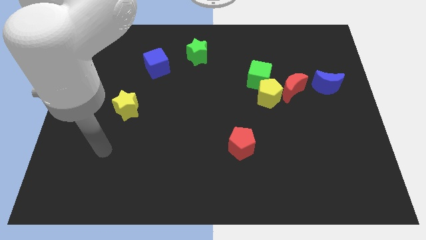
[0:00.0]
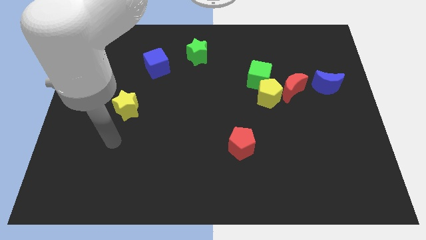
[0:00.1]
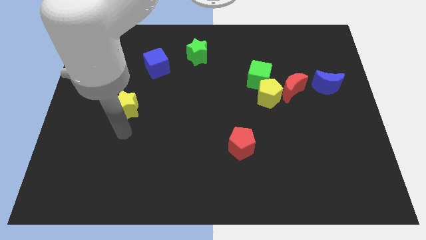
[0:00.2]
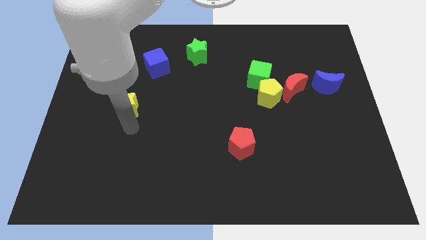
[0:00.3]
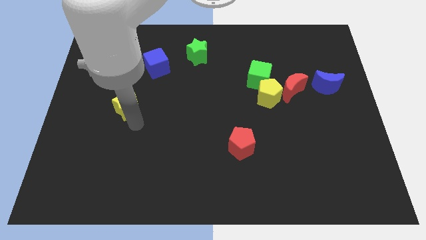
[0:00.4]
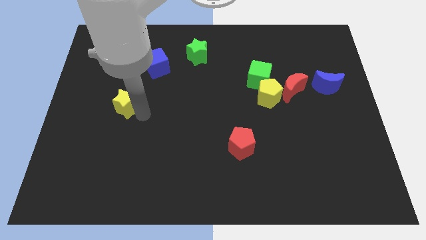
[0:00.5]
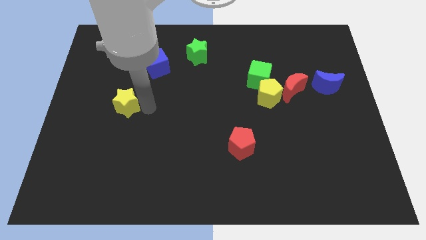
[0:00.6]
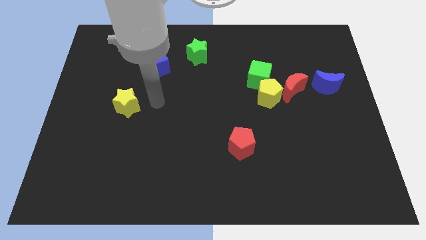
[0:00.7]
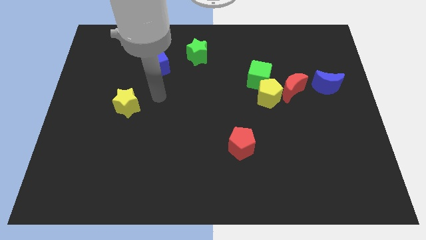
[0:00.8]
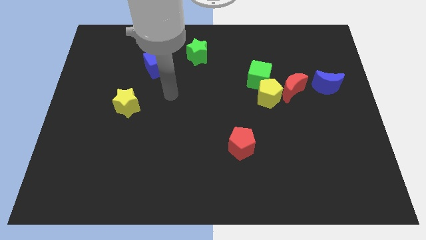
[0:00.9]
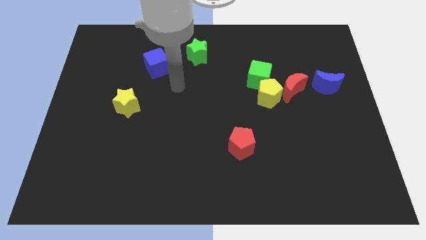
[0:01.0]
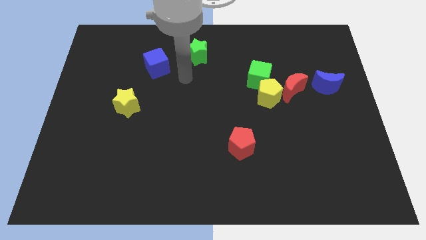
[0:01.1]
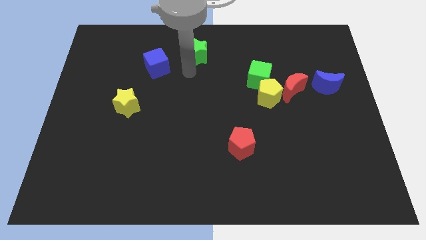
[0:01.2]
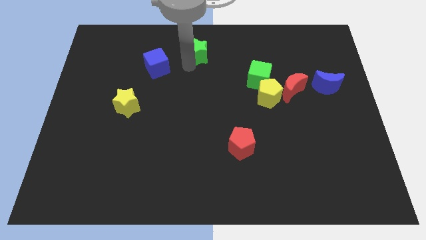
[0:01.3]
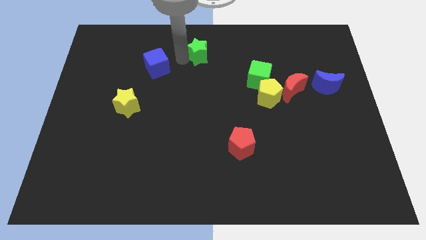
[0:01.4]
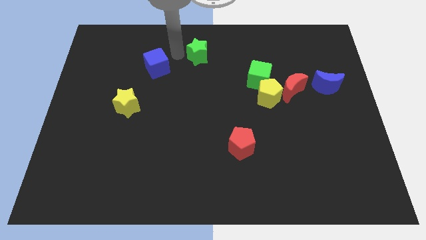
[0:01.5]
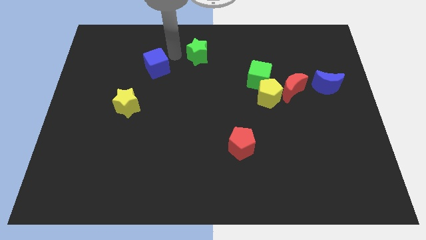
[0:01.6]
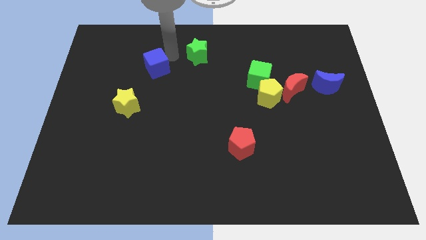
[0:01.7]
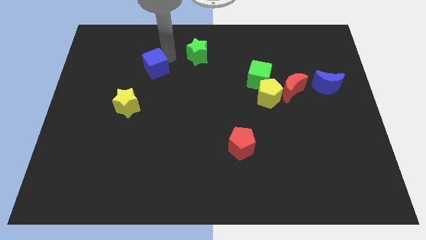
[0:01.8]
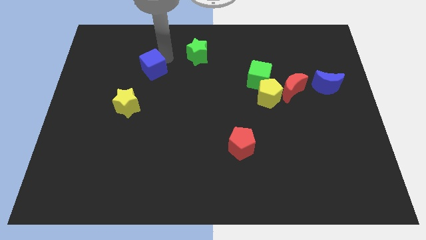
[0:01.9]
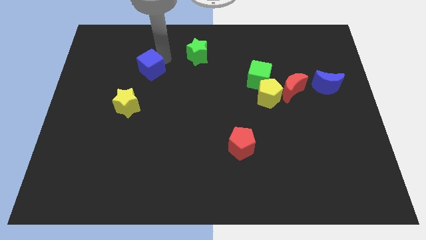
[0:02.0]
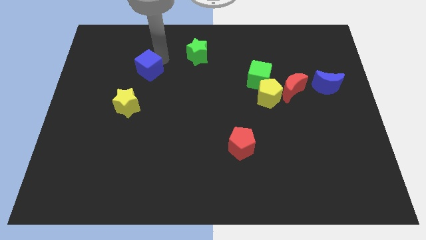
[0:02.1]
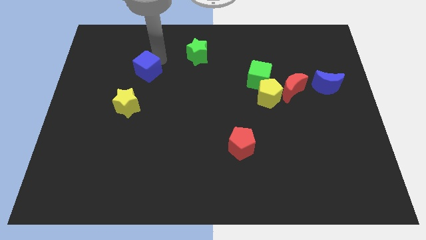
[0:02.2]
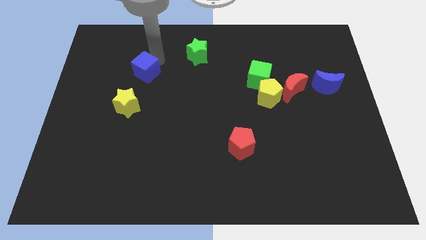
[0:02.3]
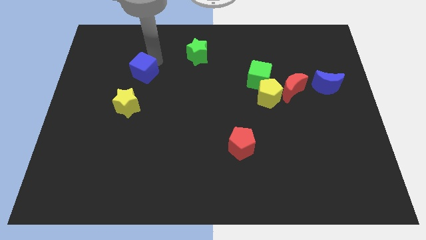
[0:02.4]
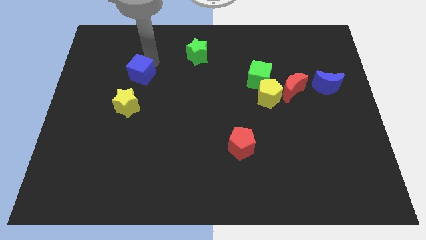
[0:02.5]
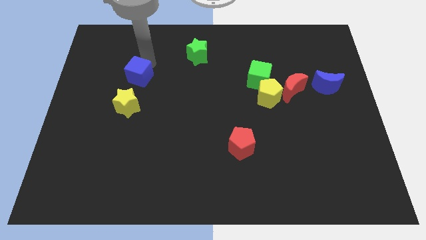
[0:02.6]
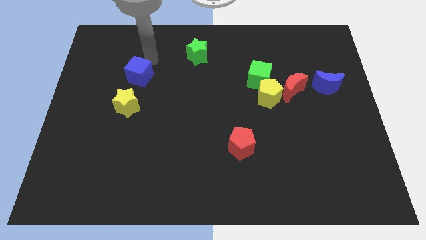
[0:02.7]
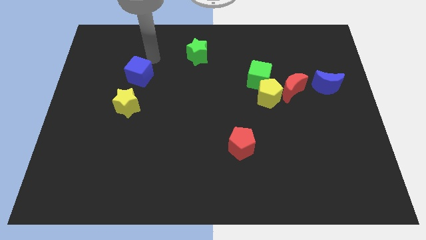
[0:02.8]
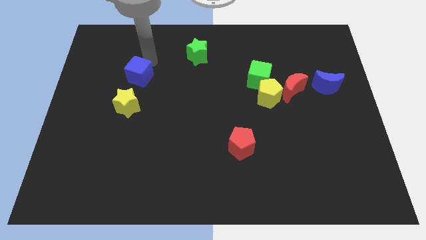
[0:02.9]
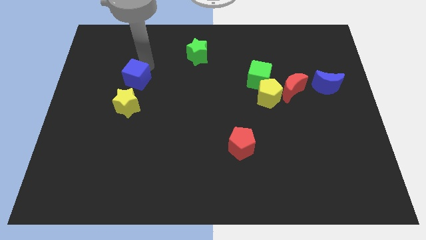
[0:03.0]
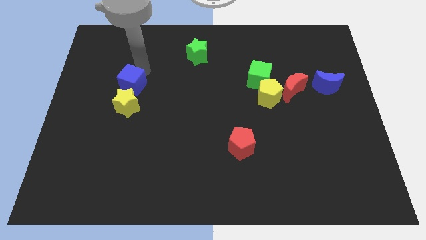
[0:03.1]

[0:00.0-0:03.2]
move the blue cube somewhat downwards and then left

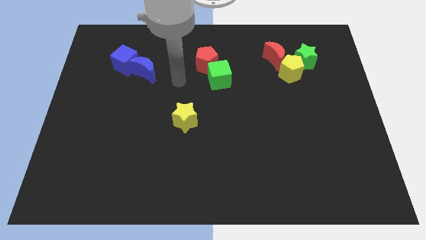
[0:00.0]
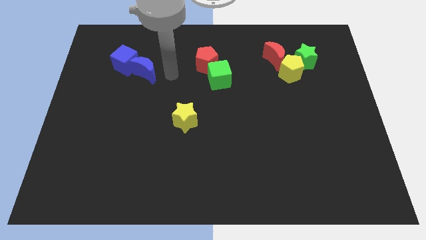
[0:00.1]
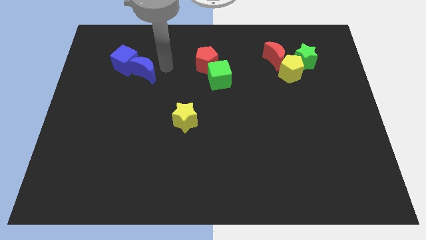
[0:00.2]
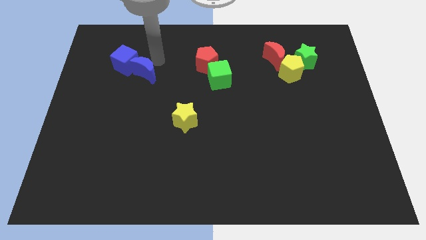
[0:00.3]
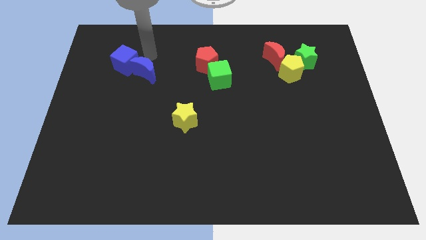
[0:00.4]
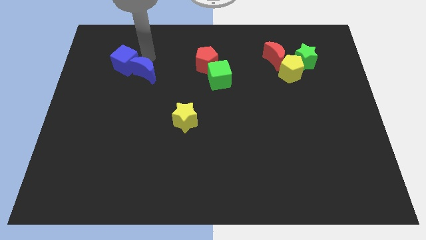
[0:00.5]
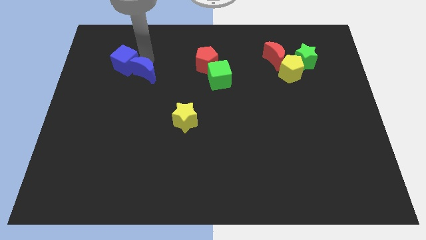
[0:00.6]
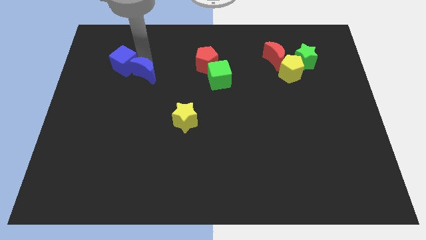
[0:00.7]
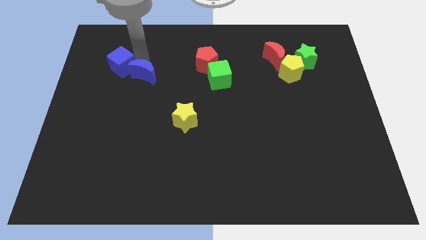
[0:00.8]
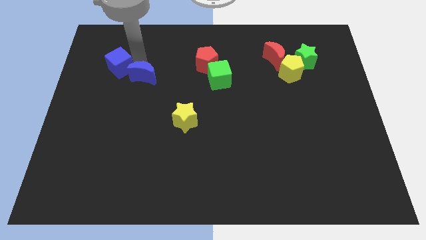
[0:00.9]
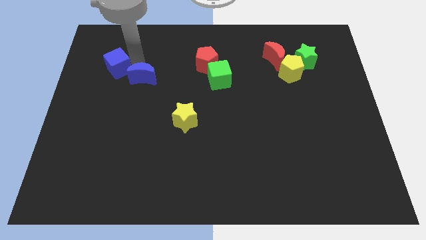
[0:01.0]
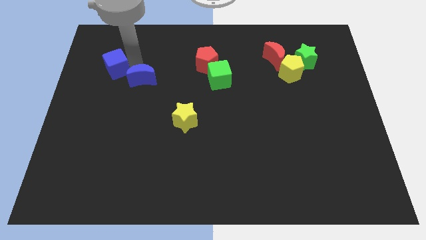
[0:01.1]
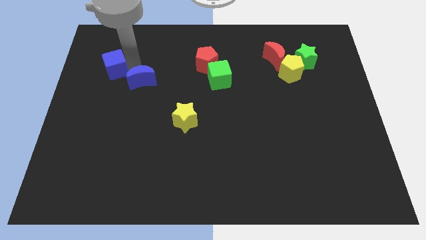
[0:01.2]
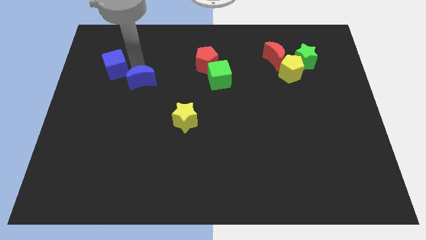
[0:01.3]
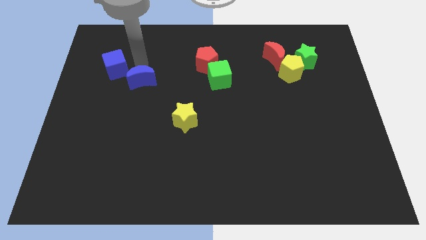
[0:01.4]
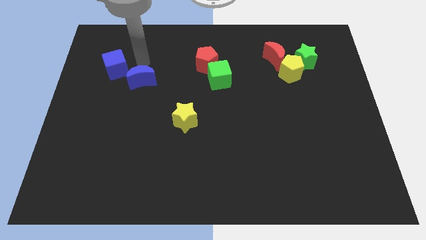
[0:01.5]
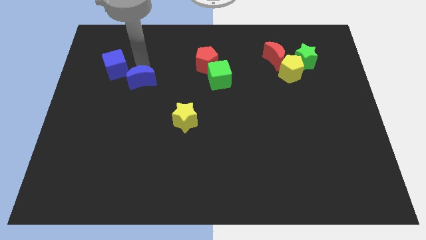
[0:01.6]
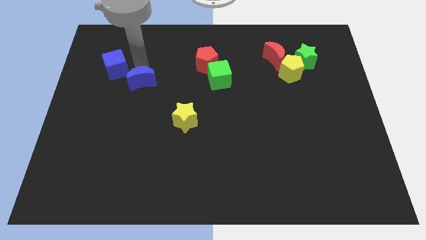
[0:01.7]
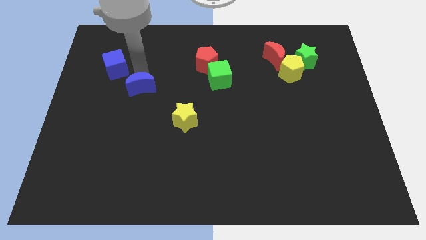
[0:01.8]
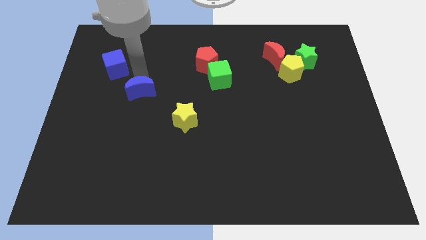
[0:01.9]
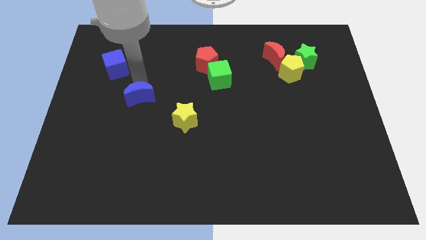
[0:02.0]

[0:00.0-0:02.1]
push the blue moon downwards a bit

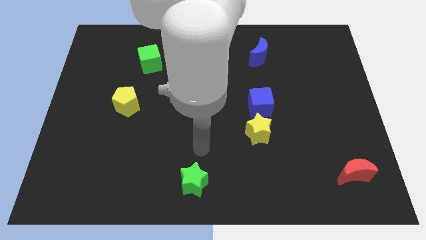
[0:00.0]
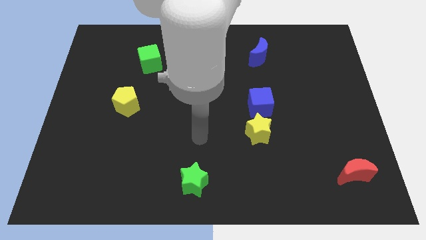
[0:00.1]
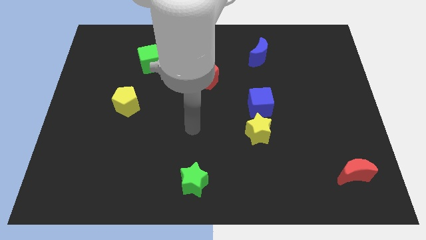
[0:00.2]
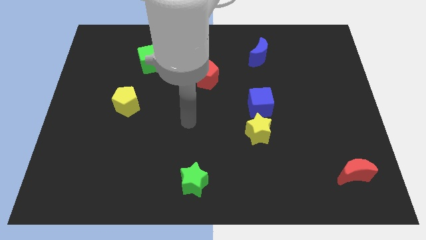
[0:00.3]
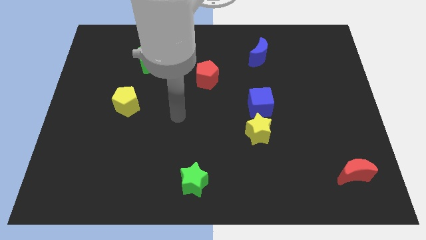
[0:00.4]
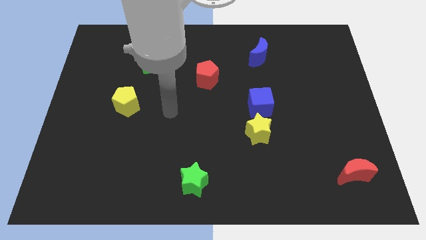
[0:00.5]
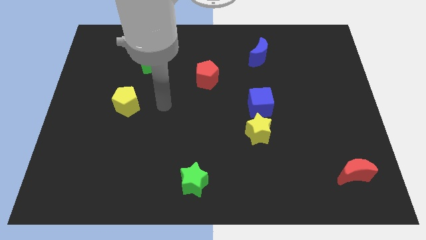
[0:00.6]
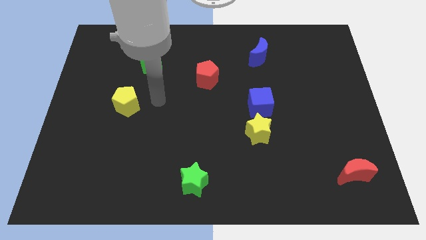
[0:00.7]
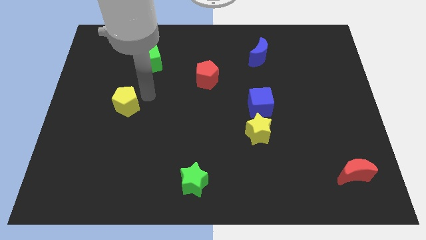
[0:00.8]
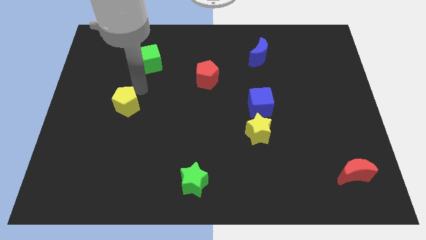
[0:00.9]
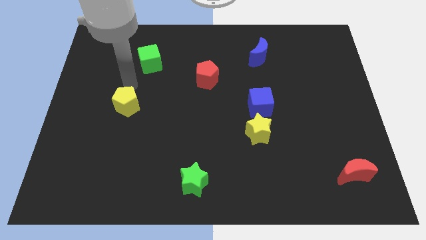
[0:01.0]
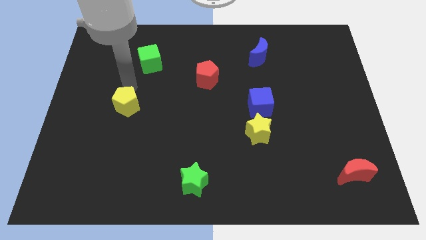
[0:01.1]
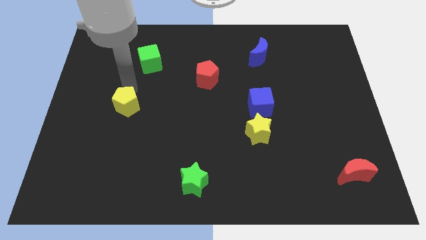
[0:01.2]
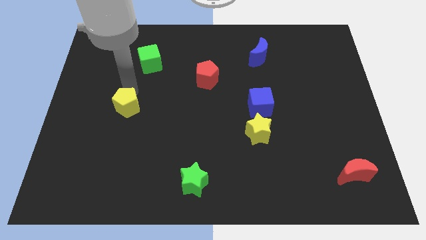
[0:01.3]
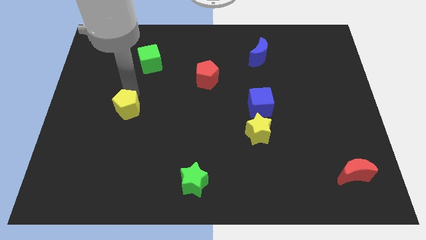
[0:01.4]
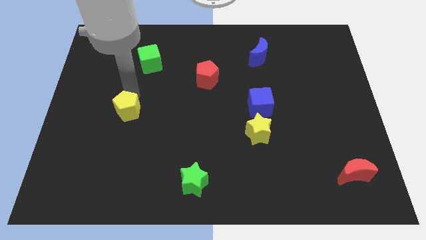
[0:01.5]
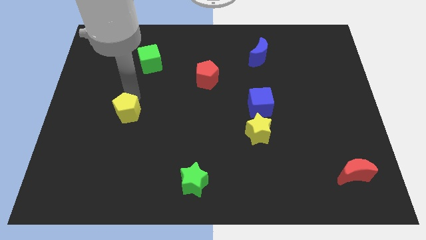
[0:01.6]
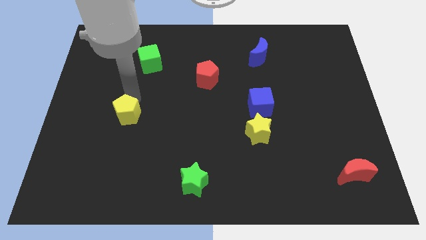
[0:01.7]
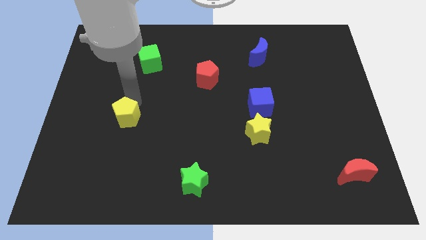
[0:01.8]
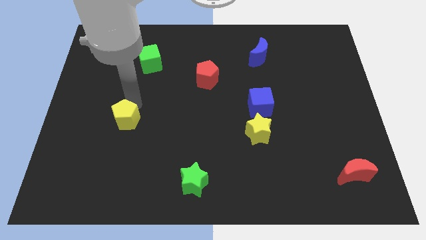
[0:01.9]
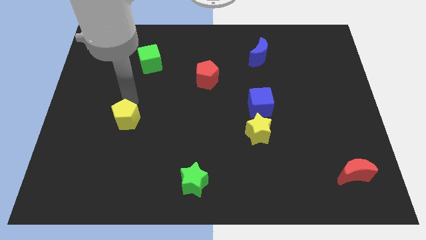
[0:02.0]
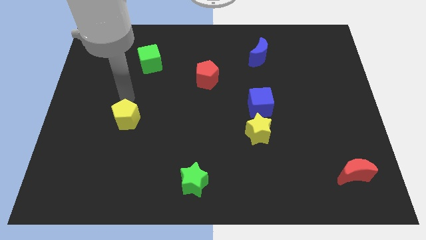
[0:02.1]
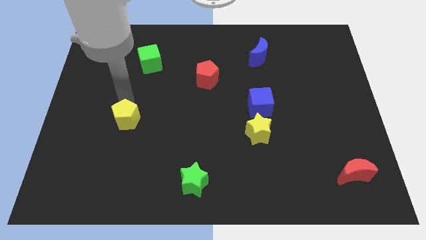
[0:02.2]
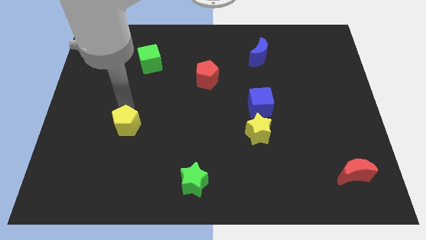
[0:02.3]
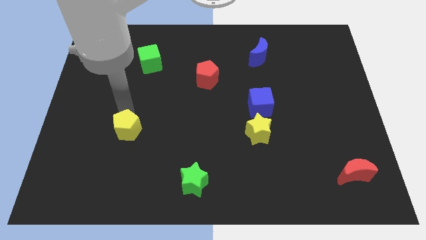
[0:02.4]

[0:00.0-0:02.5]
slightly move the yellow pentagon downwards

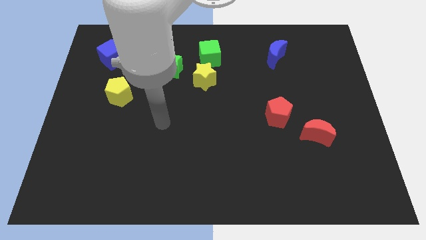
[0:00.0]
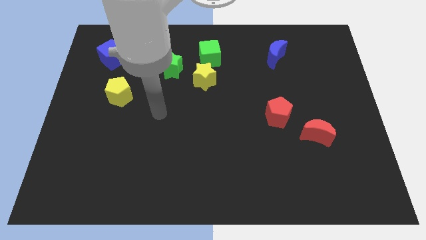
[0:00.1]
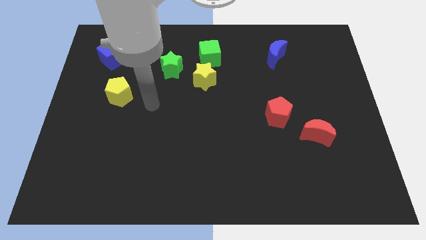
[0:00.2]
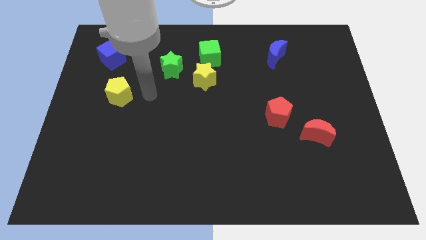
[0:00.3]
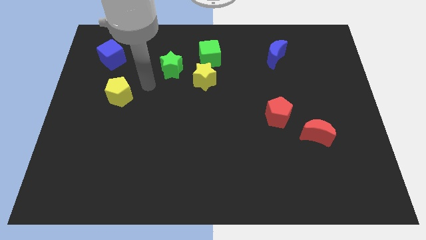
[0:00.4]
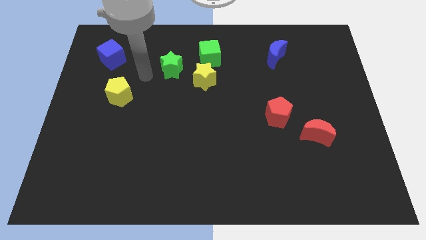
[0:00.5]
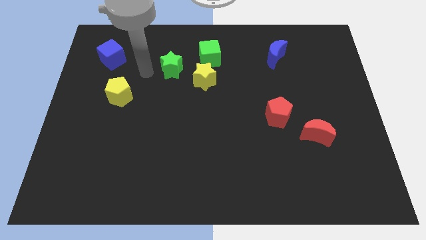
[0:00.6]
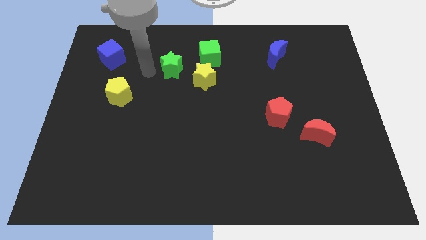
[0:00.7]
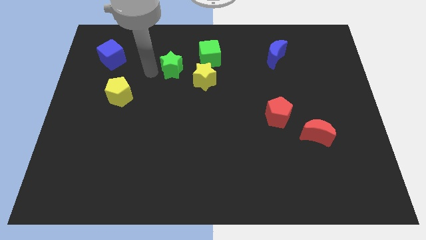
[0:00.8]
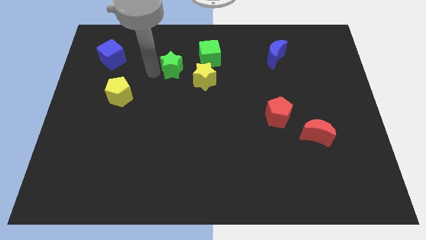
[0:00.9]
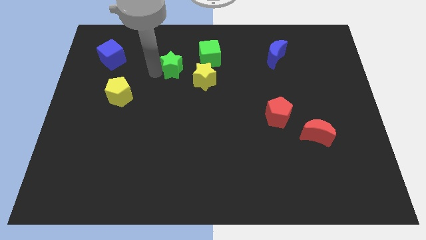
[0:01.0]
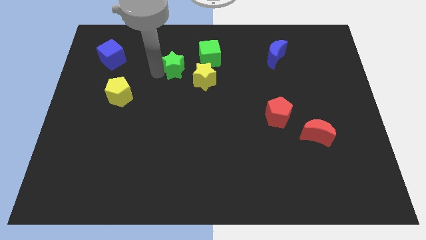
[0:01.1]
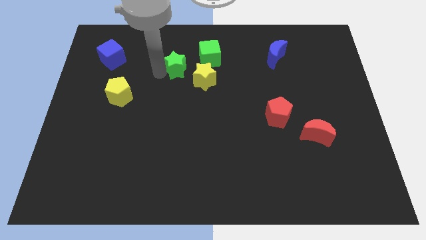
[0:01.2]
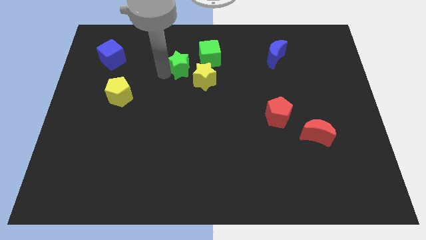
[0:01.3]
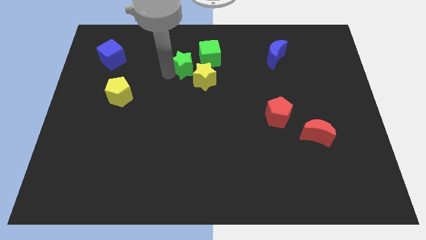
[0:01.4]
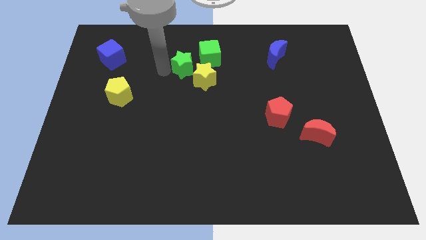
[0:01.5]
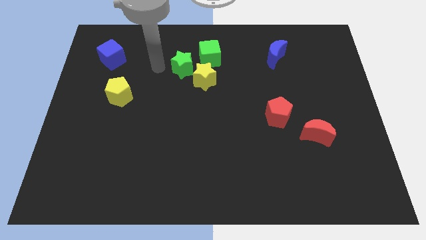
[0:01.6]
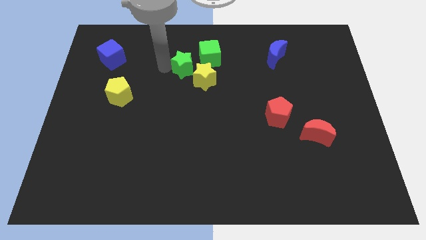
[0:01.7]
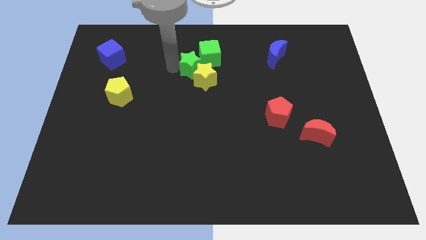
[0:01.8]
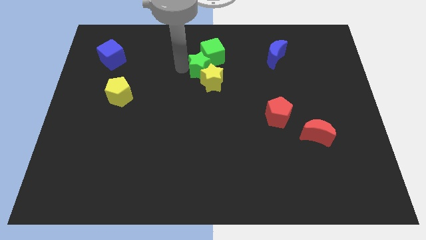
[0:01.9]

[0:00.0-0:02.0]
push the green star right a little
